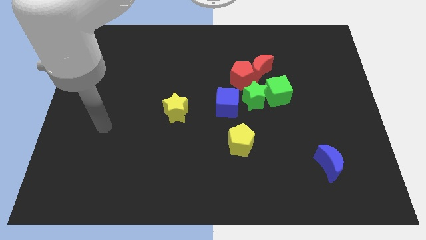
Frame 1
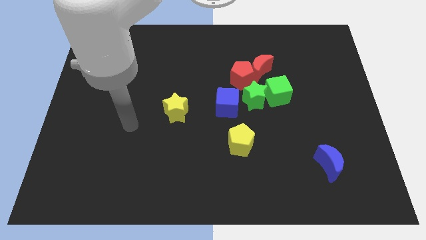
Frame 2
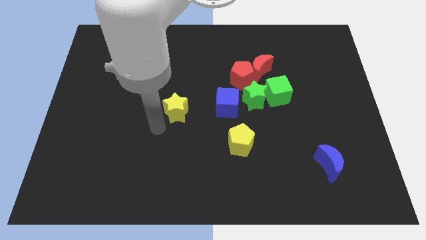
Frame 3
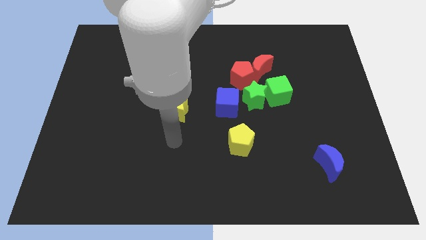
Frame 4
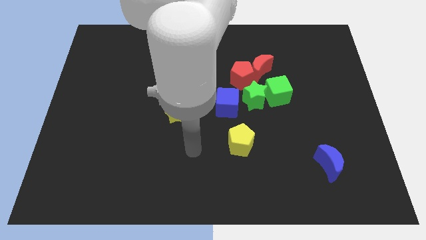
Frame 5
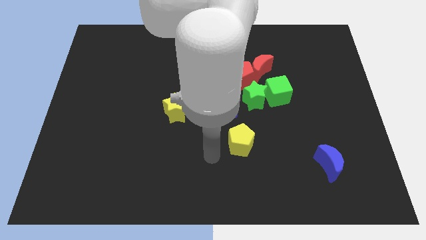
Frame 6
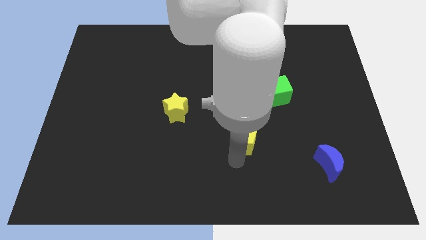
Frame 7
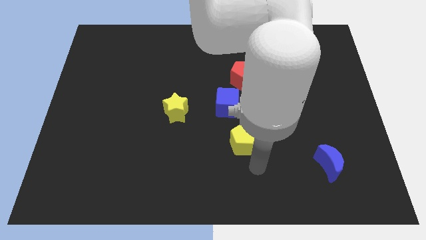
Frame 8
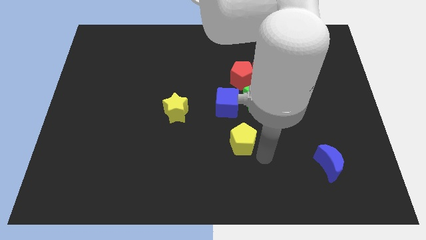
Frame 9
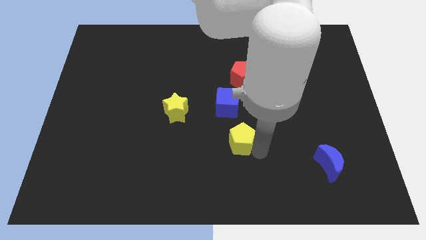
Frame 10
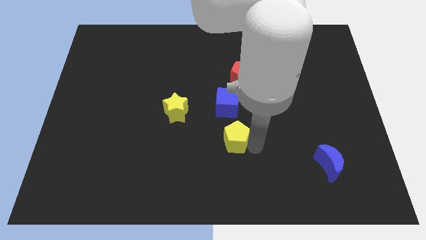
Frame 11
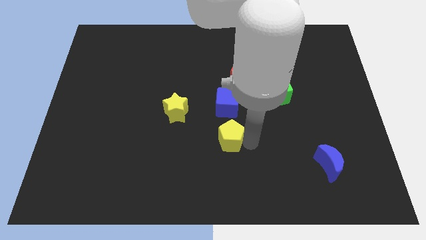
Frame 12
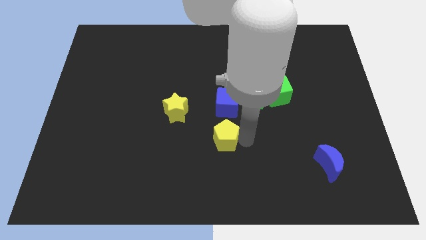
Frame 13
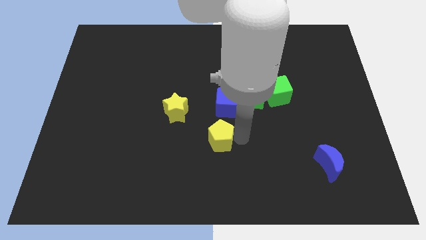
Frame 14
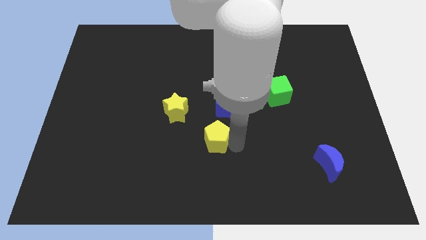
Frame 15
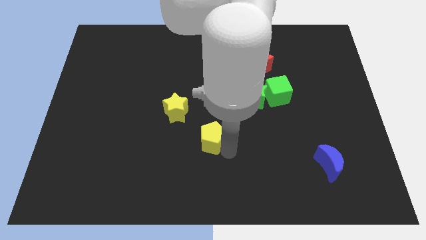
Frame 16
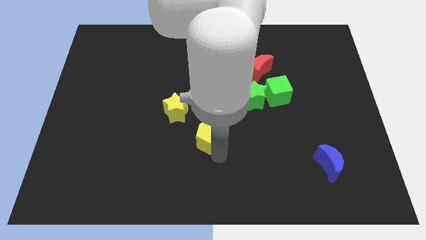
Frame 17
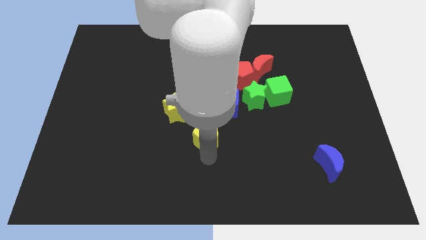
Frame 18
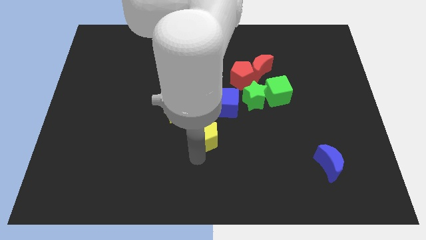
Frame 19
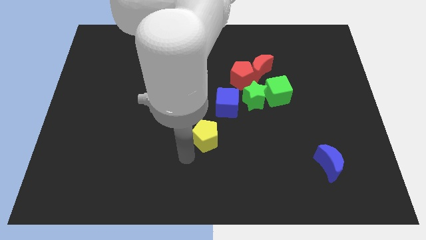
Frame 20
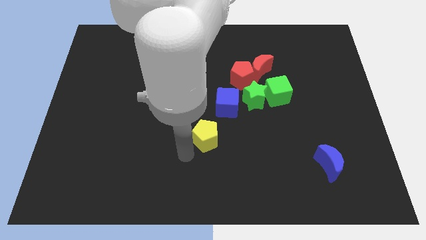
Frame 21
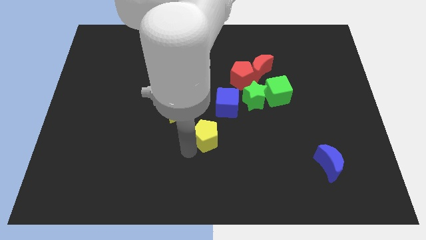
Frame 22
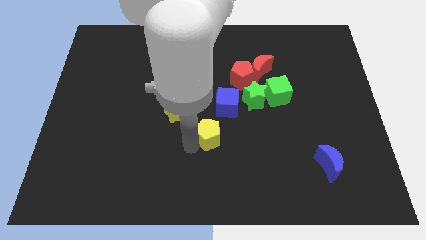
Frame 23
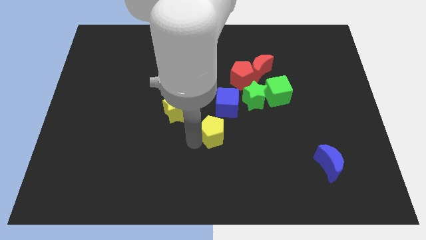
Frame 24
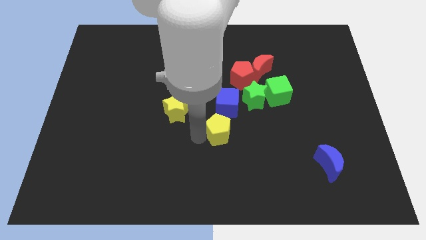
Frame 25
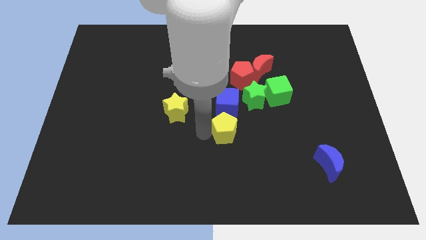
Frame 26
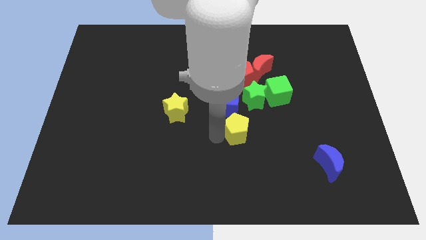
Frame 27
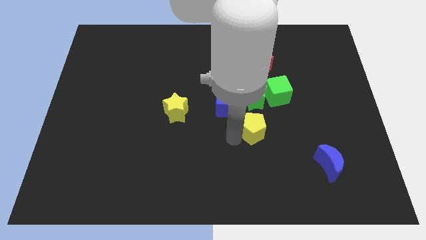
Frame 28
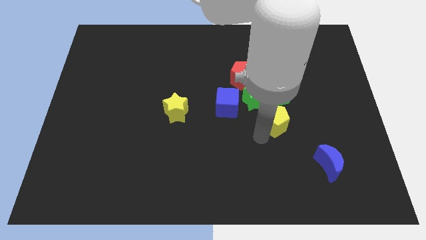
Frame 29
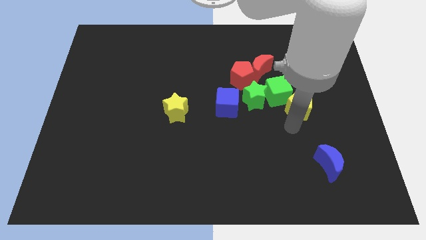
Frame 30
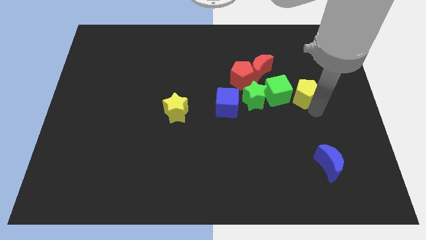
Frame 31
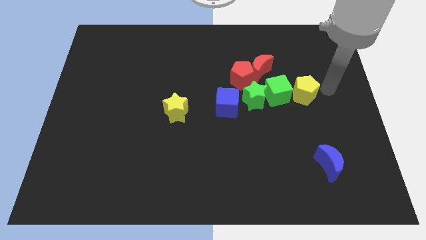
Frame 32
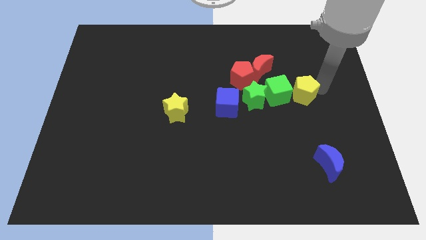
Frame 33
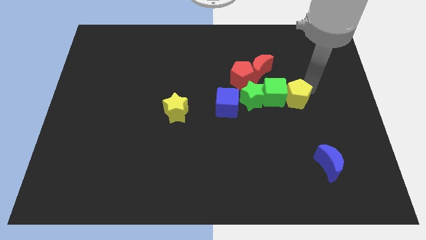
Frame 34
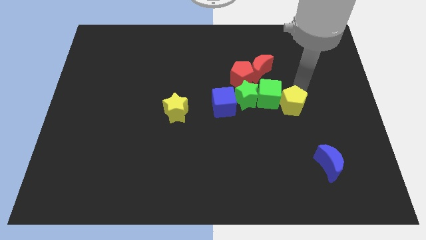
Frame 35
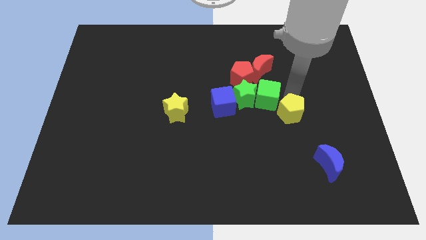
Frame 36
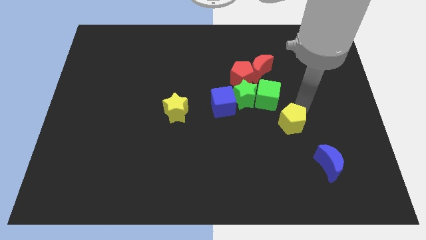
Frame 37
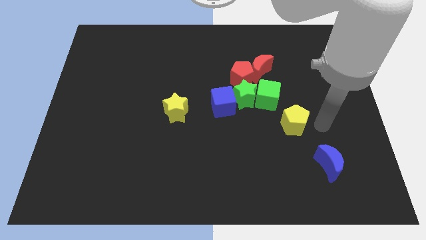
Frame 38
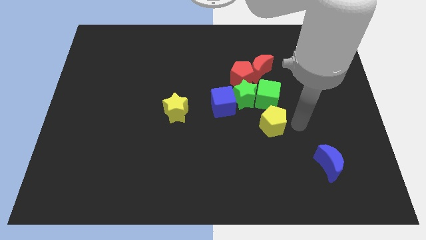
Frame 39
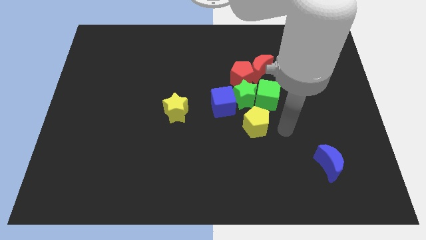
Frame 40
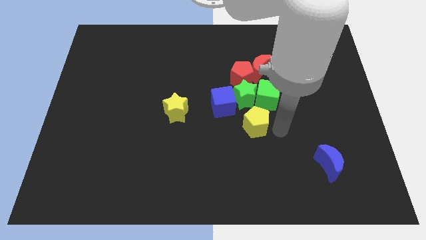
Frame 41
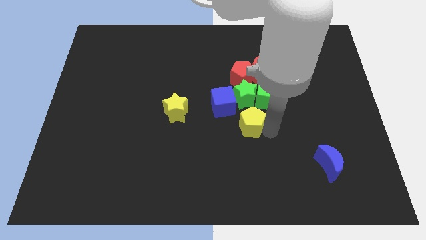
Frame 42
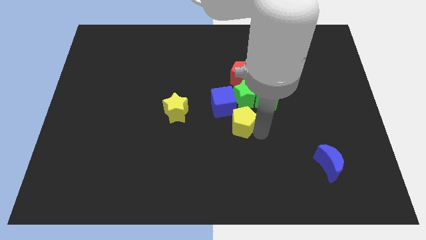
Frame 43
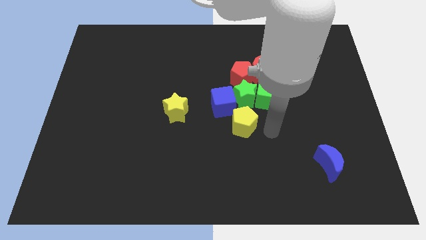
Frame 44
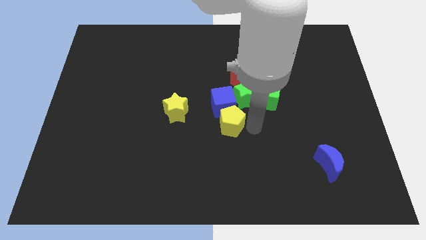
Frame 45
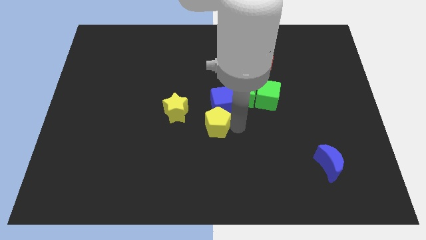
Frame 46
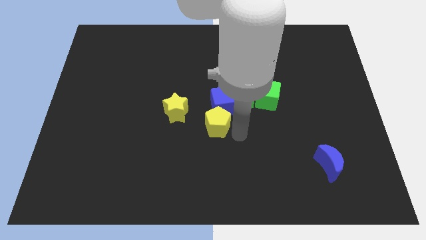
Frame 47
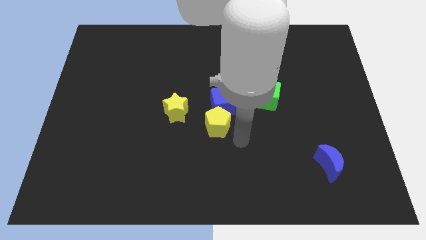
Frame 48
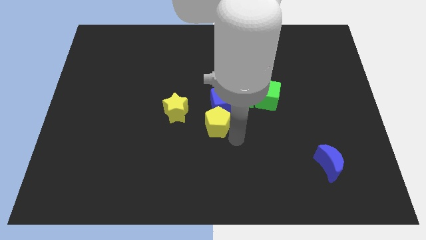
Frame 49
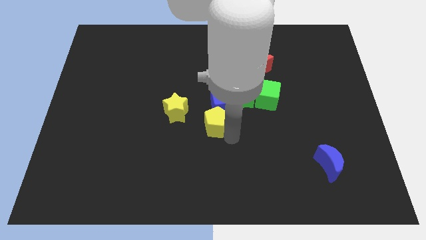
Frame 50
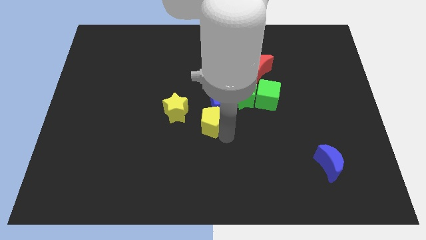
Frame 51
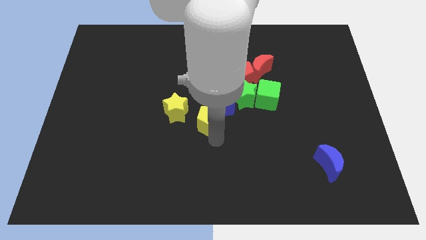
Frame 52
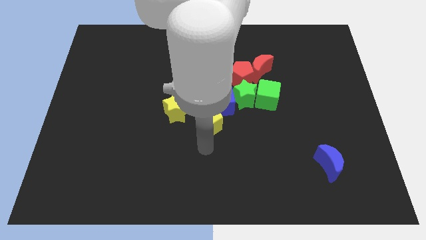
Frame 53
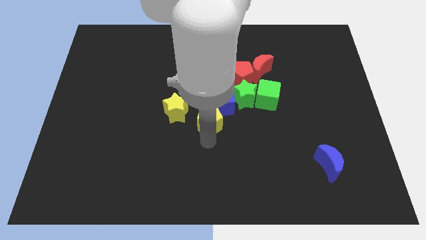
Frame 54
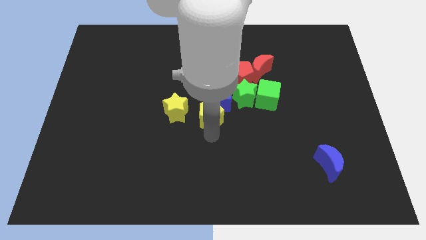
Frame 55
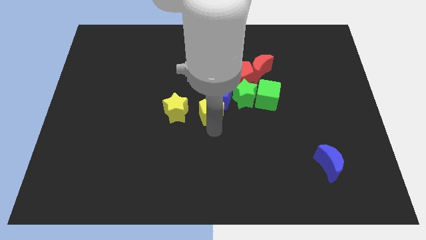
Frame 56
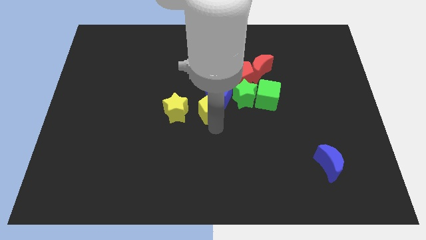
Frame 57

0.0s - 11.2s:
push the yellow pentagon just left of the green cube
